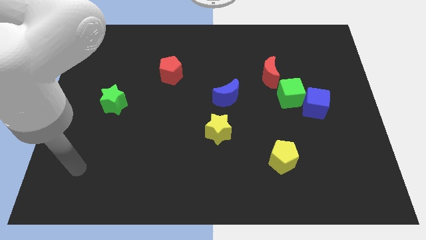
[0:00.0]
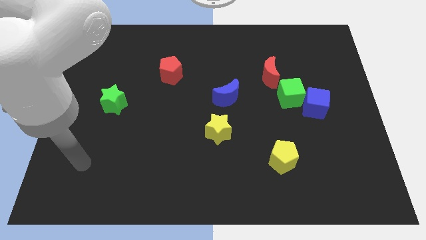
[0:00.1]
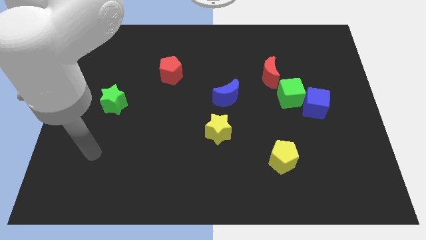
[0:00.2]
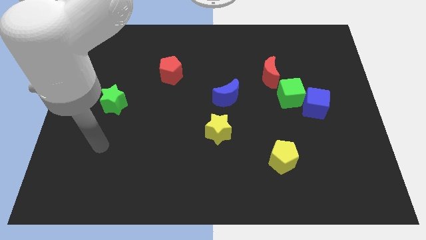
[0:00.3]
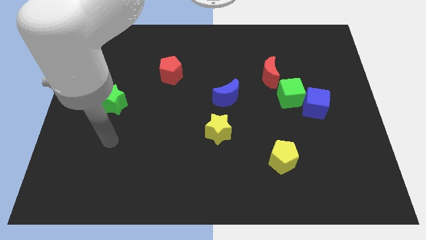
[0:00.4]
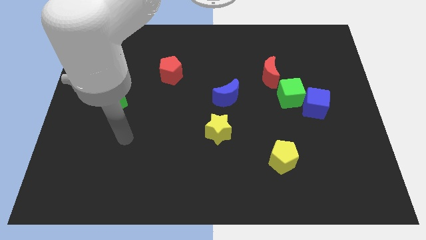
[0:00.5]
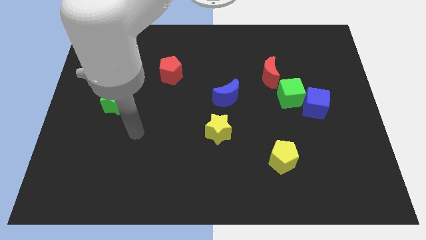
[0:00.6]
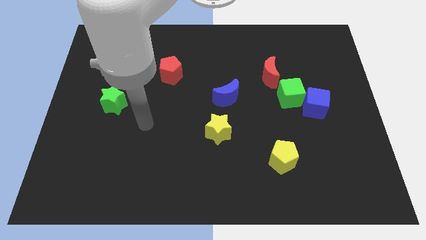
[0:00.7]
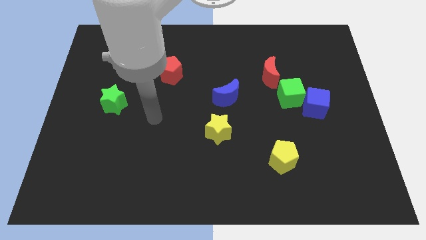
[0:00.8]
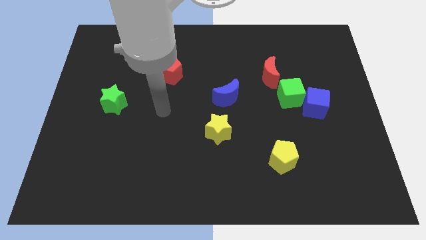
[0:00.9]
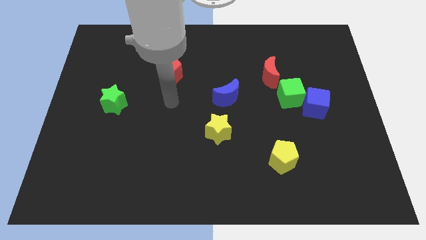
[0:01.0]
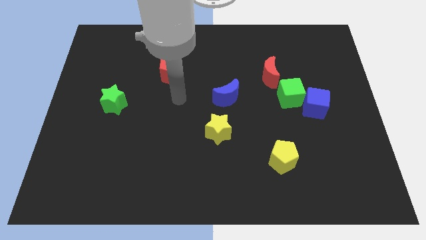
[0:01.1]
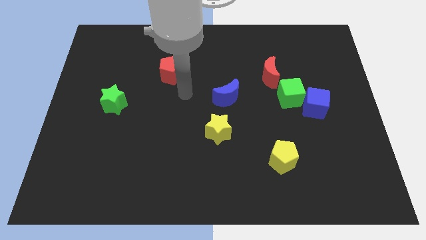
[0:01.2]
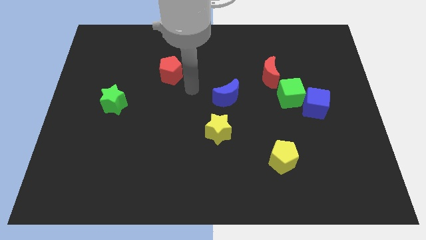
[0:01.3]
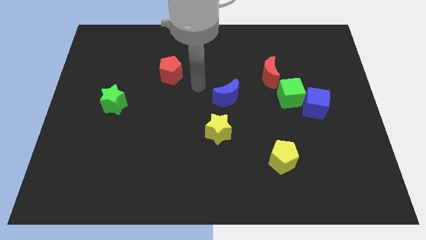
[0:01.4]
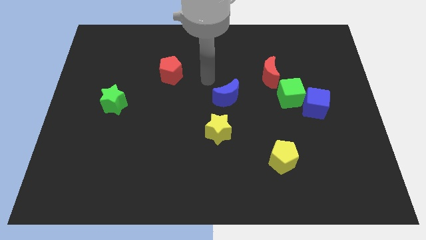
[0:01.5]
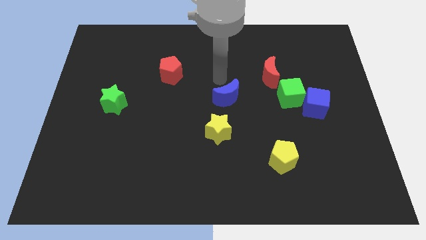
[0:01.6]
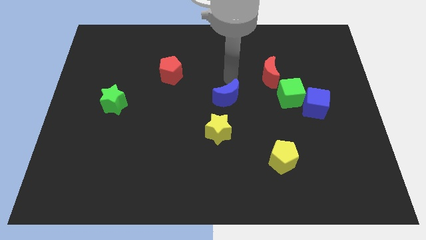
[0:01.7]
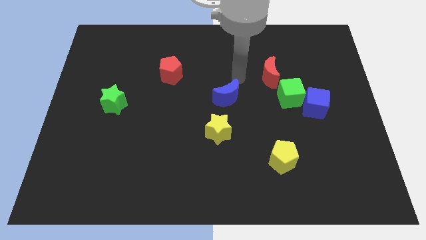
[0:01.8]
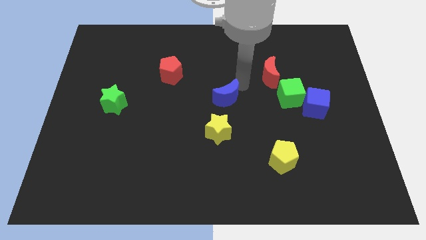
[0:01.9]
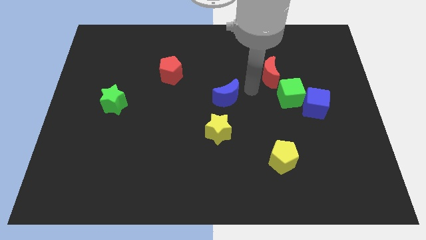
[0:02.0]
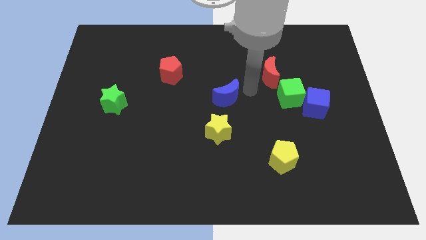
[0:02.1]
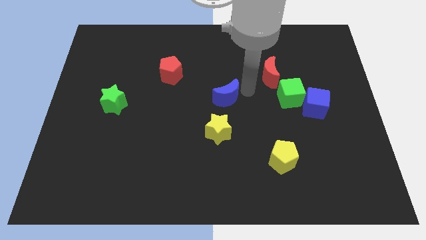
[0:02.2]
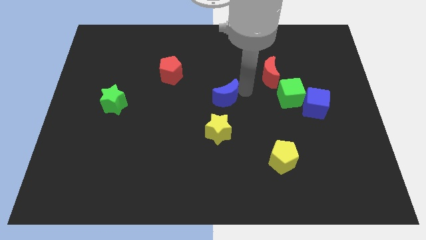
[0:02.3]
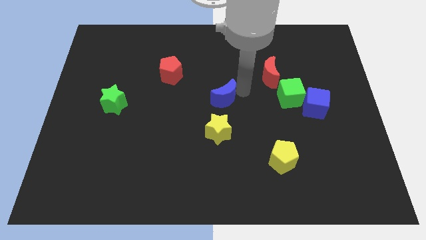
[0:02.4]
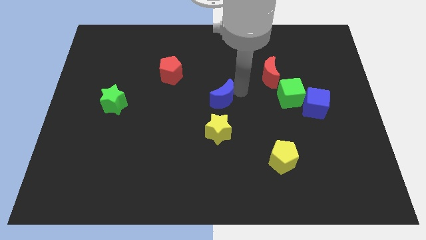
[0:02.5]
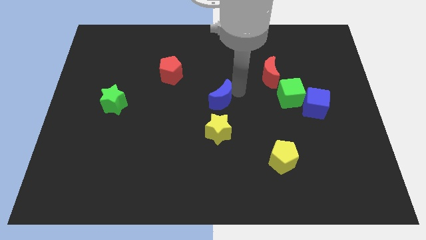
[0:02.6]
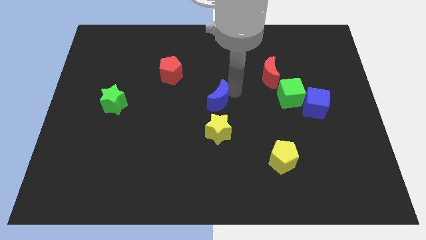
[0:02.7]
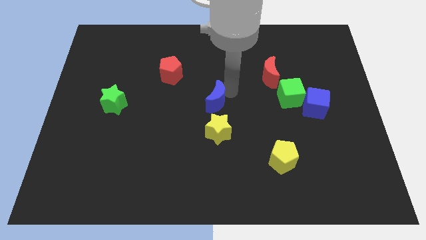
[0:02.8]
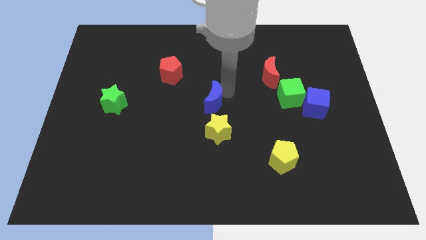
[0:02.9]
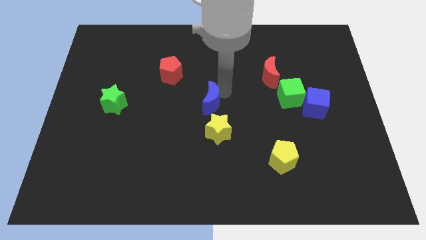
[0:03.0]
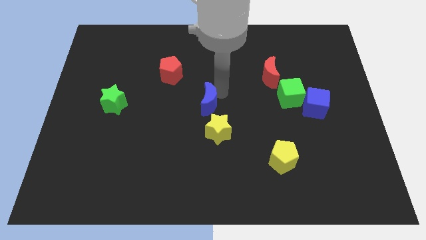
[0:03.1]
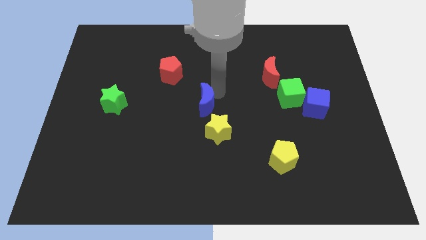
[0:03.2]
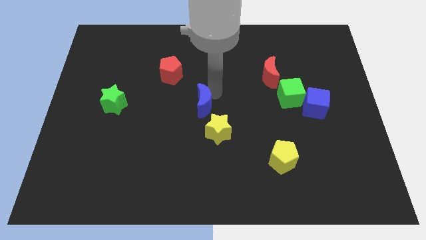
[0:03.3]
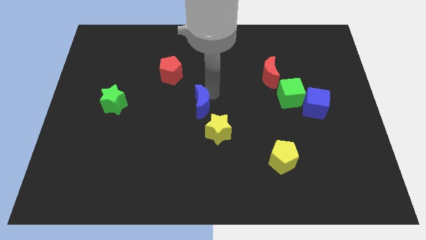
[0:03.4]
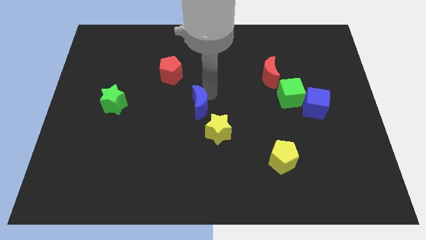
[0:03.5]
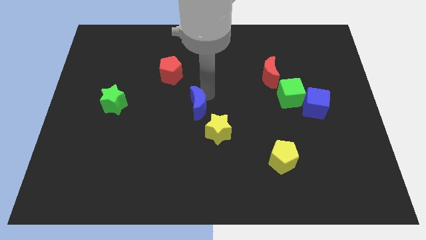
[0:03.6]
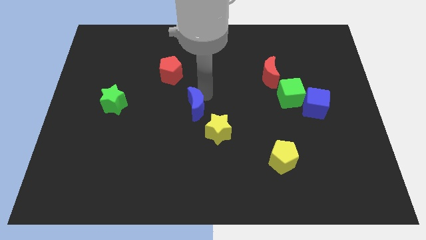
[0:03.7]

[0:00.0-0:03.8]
slide the blue moon a bit down and then to the left

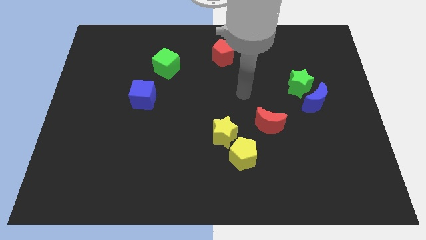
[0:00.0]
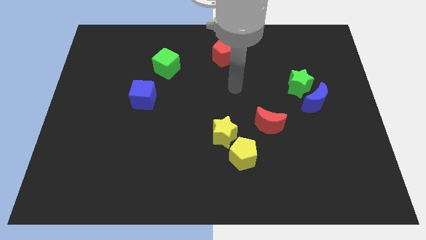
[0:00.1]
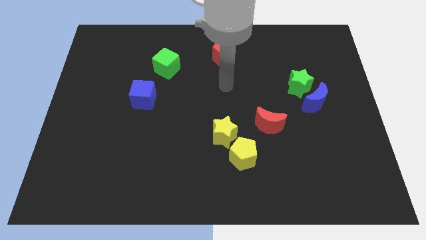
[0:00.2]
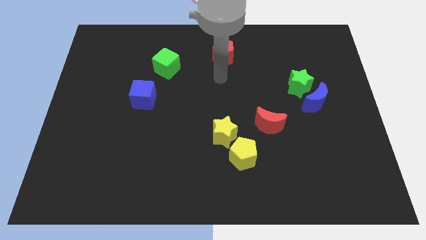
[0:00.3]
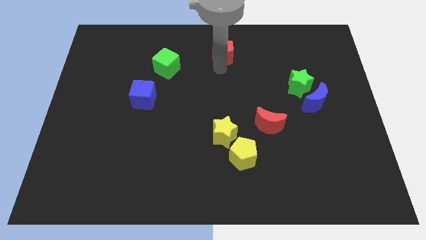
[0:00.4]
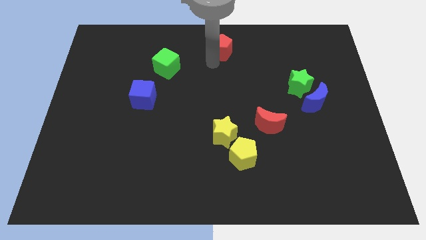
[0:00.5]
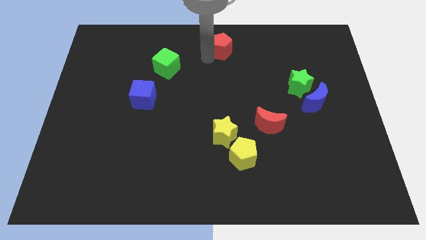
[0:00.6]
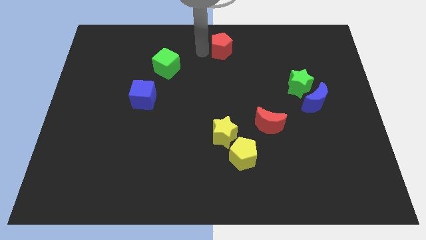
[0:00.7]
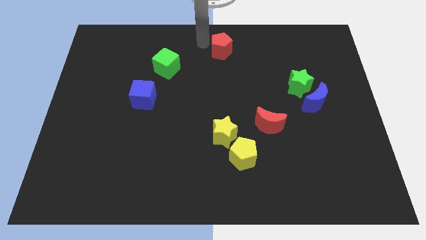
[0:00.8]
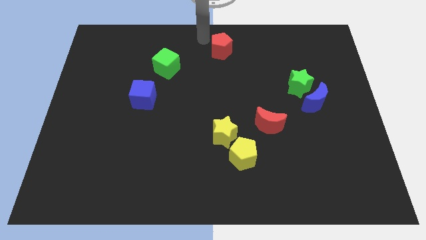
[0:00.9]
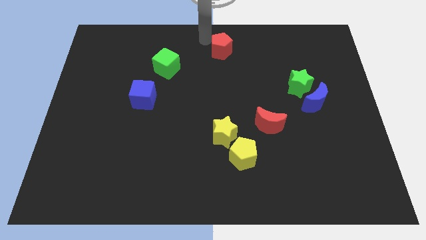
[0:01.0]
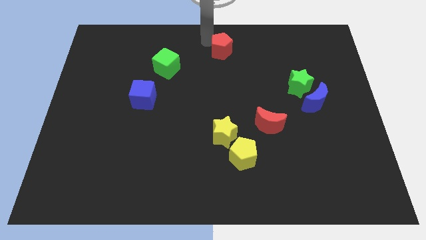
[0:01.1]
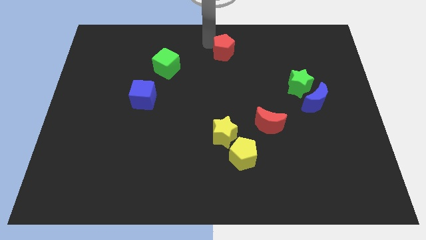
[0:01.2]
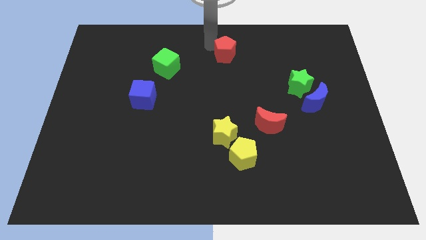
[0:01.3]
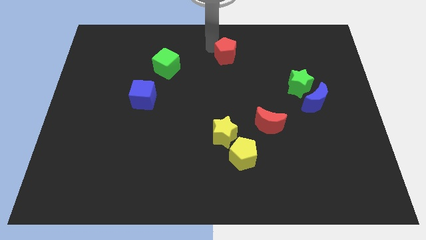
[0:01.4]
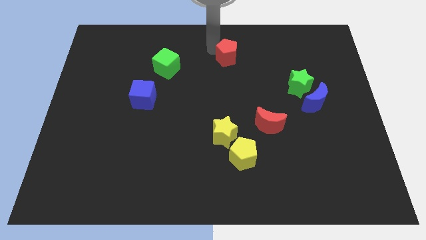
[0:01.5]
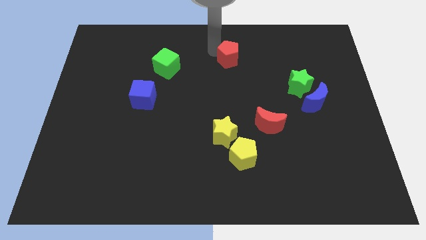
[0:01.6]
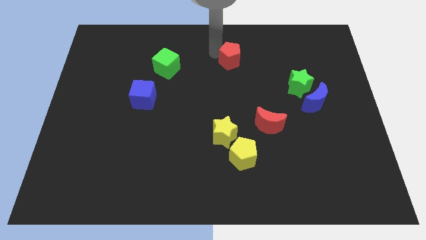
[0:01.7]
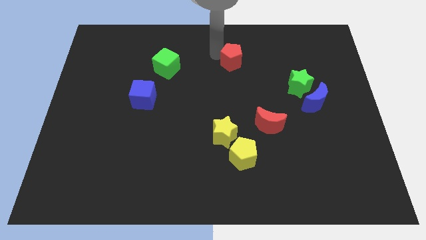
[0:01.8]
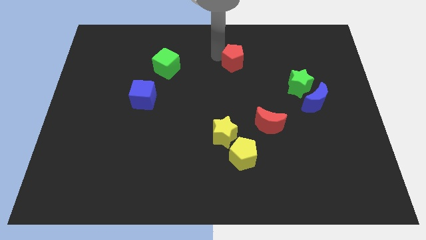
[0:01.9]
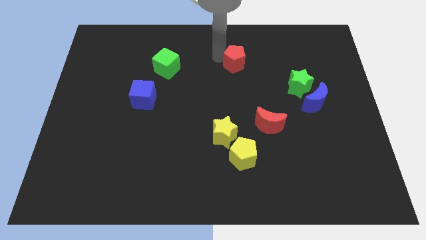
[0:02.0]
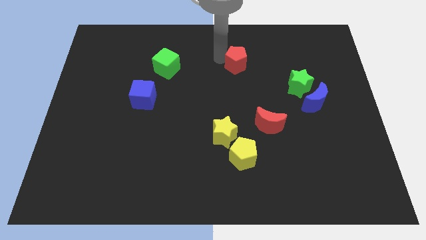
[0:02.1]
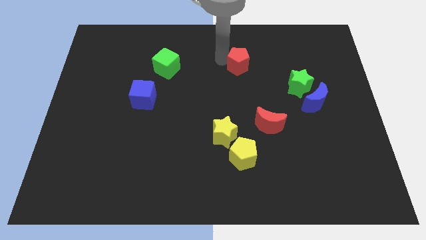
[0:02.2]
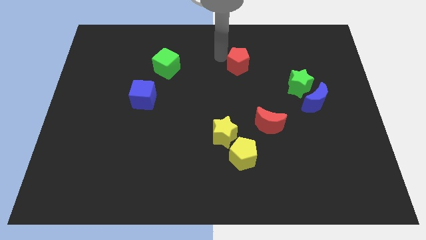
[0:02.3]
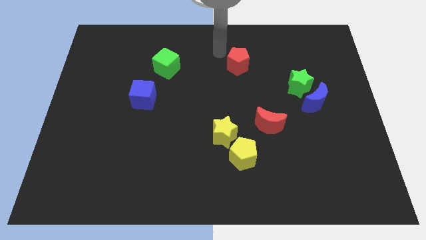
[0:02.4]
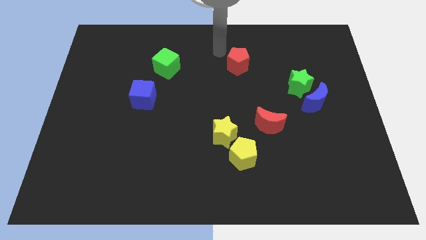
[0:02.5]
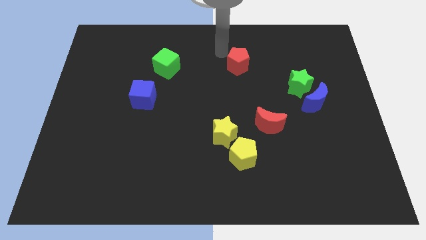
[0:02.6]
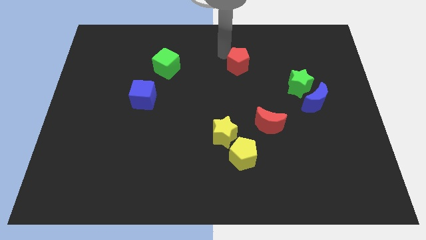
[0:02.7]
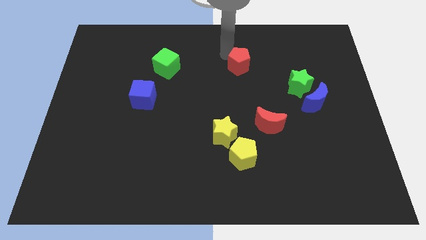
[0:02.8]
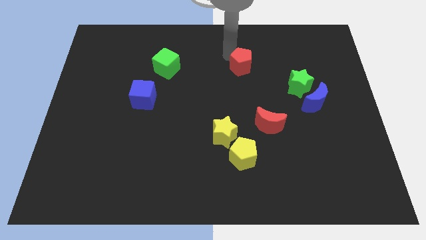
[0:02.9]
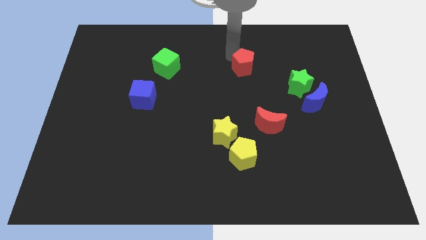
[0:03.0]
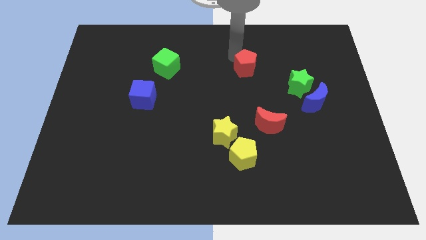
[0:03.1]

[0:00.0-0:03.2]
slightly slide the red pentagon down and to the right

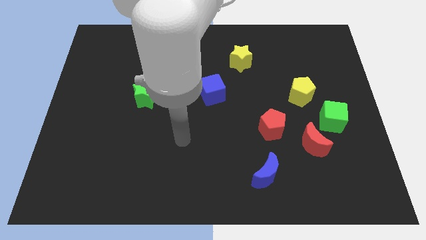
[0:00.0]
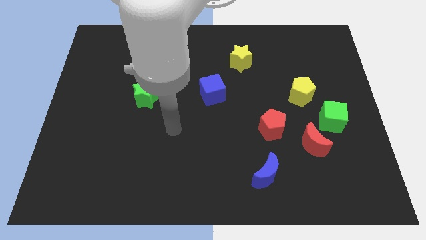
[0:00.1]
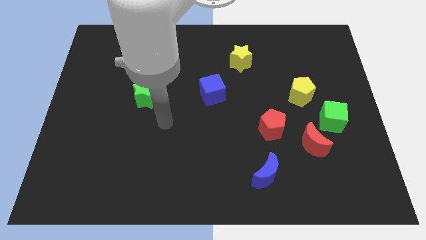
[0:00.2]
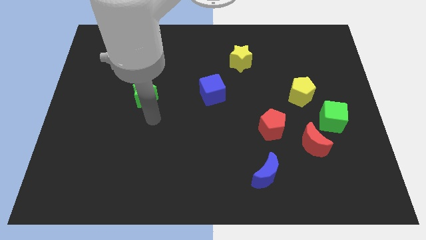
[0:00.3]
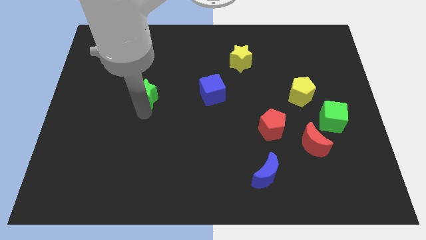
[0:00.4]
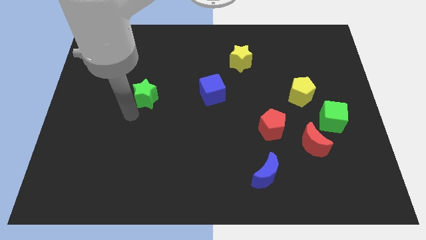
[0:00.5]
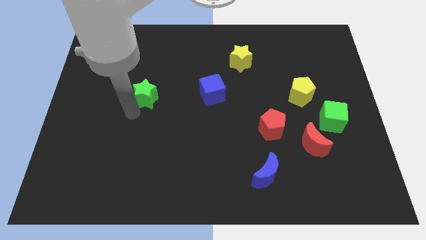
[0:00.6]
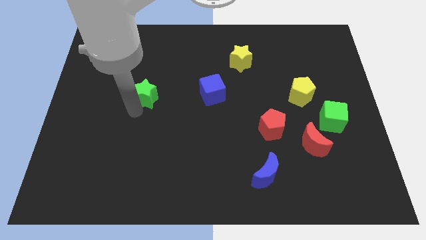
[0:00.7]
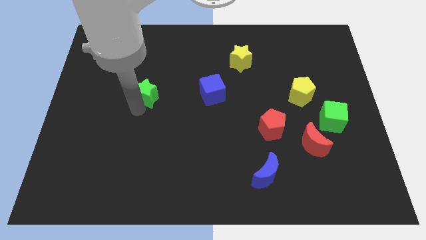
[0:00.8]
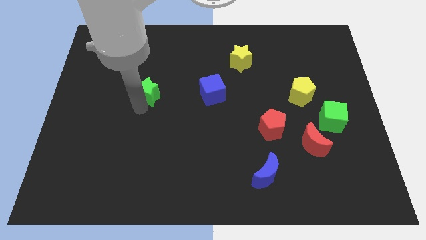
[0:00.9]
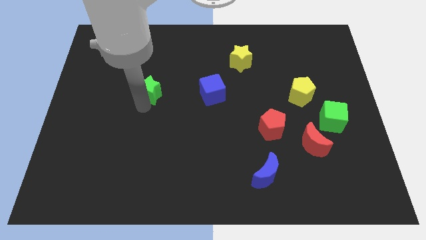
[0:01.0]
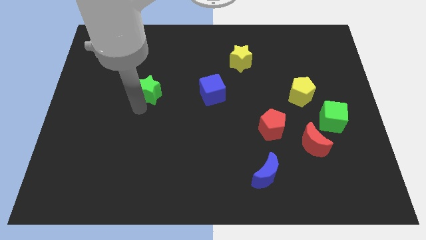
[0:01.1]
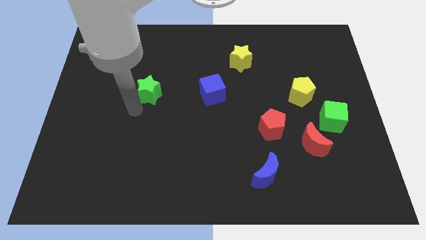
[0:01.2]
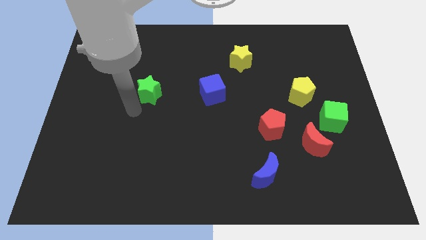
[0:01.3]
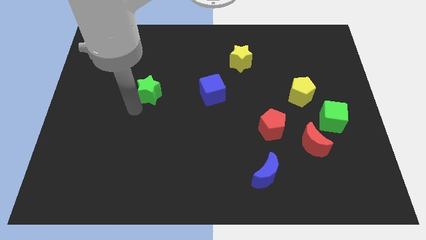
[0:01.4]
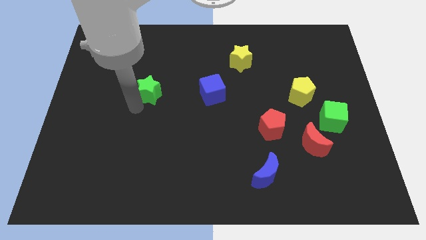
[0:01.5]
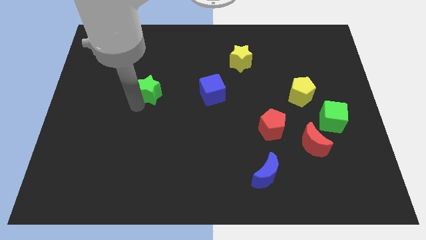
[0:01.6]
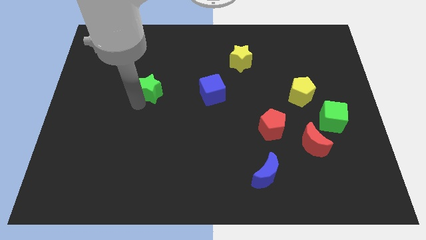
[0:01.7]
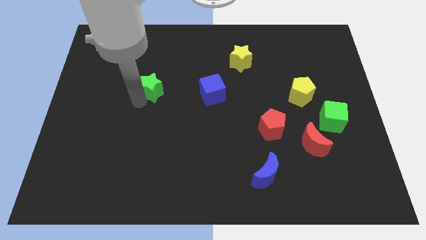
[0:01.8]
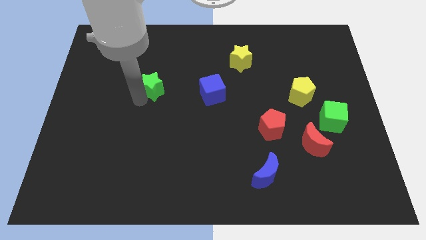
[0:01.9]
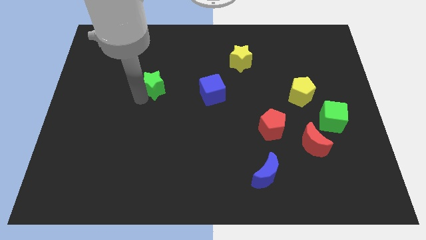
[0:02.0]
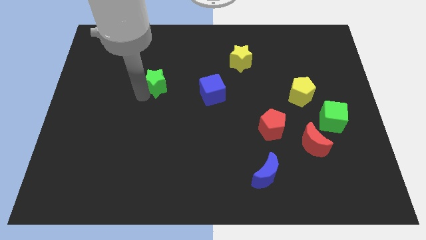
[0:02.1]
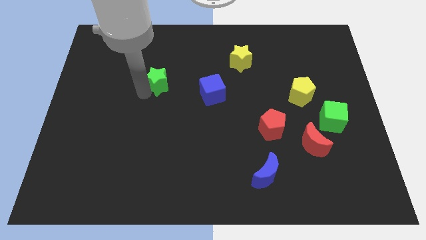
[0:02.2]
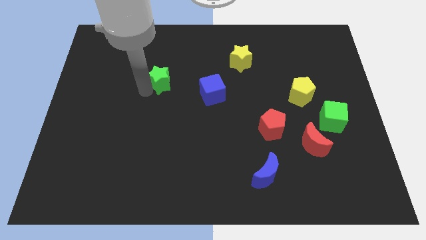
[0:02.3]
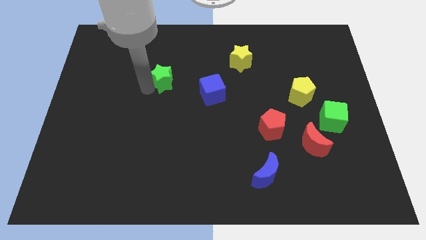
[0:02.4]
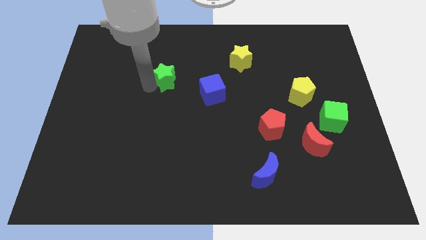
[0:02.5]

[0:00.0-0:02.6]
slightly push the green star up and then to the right
